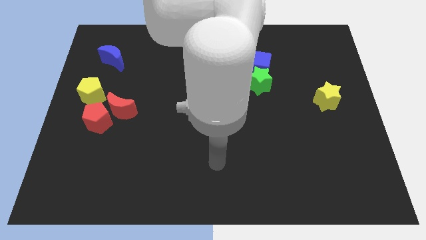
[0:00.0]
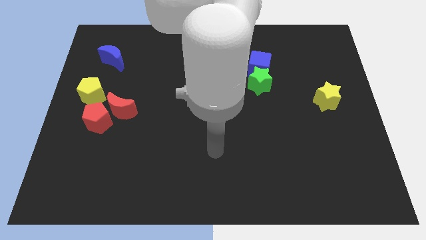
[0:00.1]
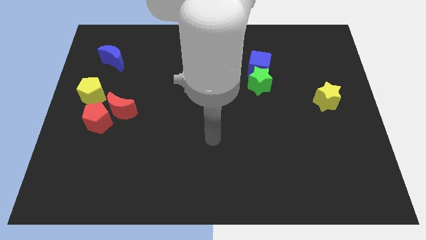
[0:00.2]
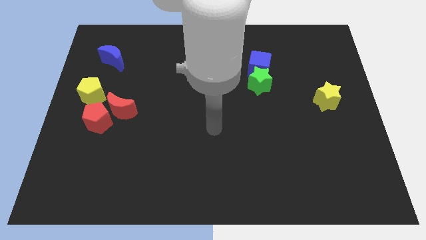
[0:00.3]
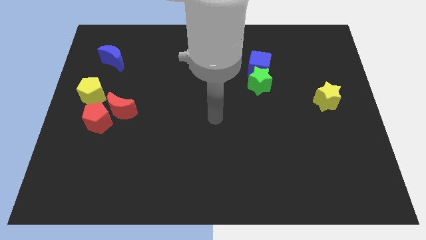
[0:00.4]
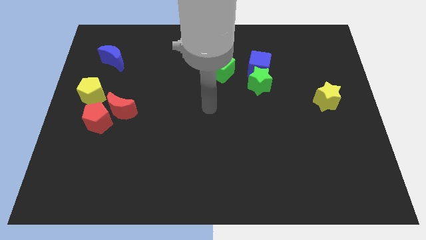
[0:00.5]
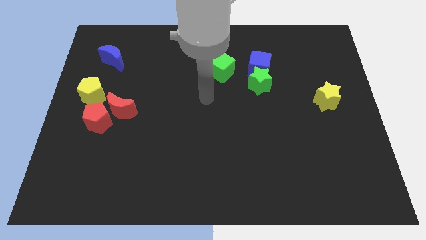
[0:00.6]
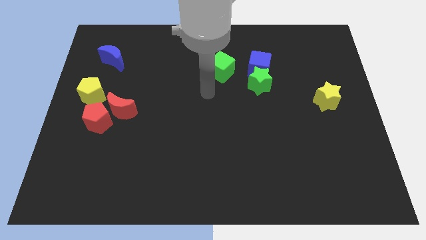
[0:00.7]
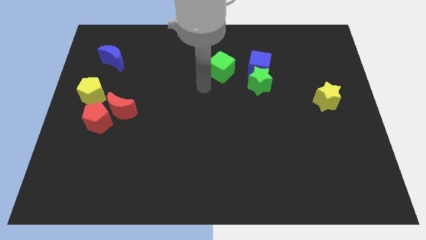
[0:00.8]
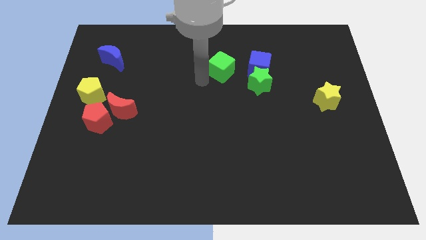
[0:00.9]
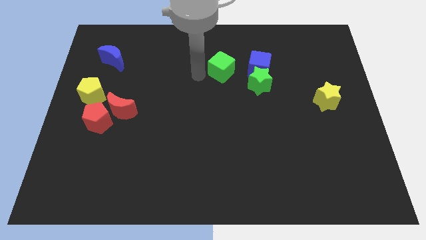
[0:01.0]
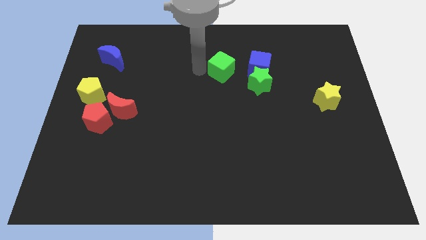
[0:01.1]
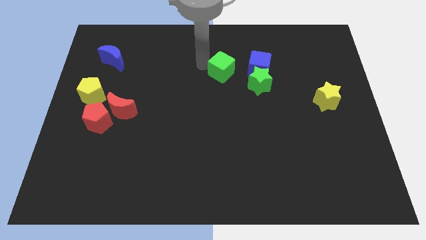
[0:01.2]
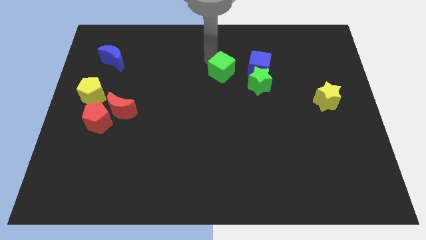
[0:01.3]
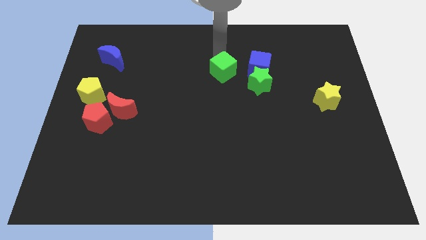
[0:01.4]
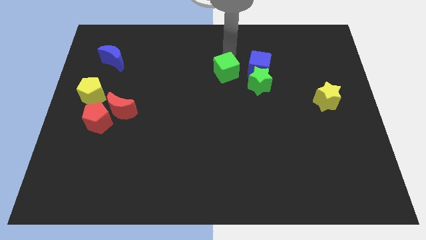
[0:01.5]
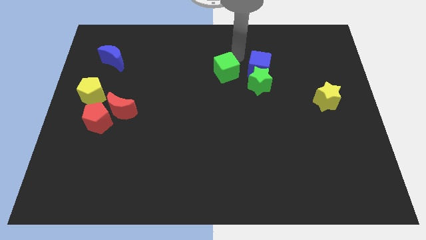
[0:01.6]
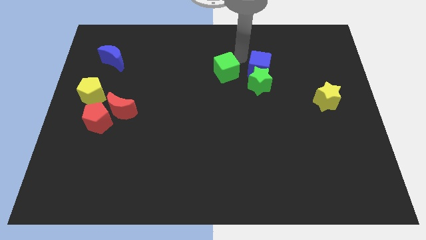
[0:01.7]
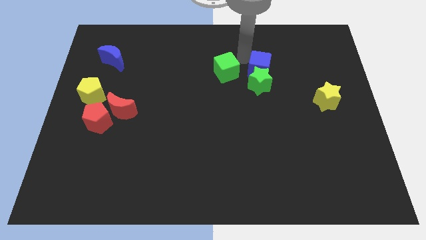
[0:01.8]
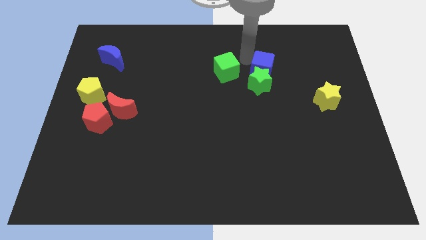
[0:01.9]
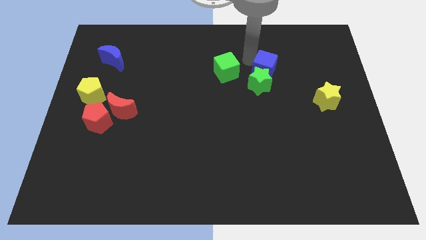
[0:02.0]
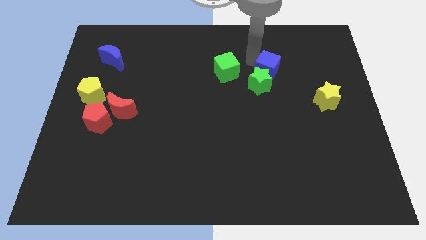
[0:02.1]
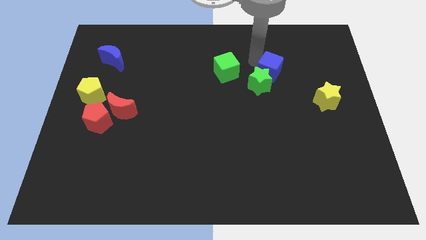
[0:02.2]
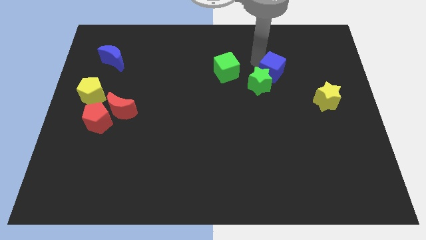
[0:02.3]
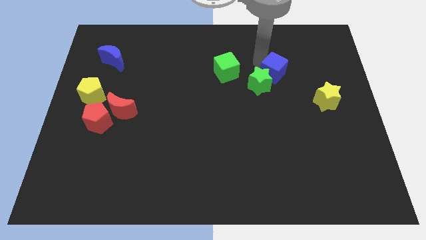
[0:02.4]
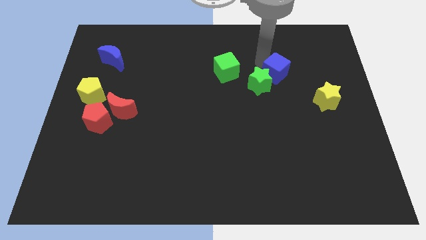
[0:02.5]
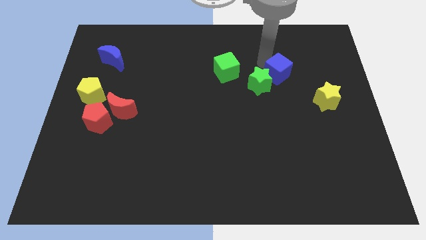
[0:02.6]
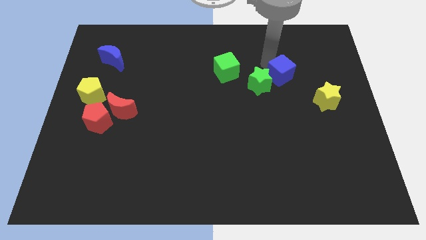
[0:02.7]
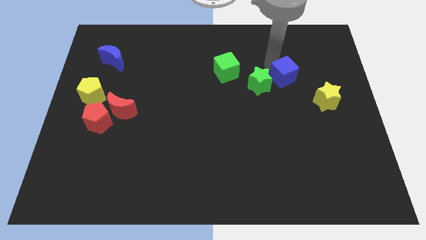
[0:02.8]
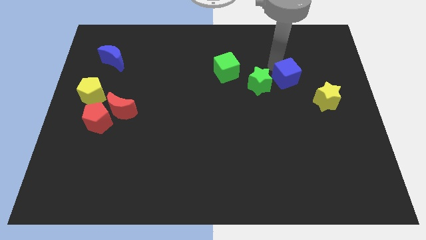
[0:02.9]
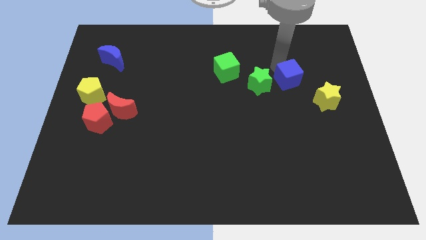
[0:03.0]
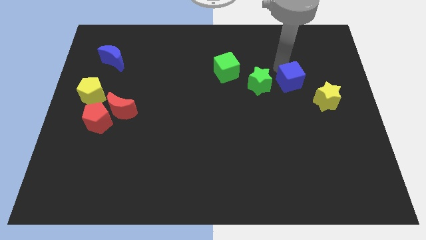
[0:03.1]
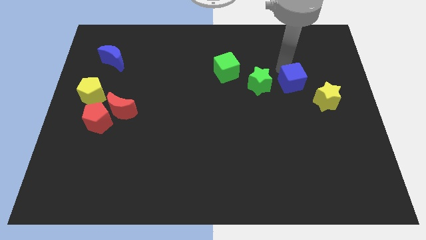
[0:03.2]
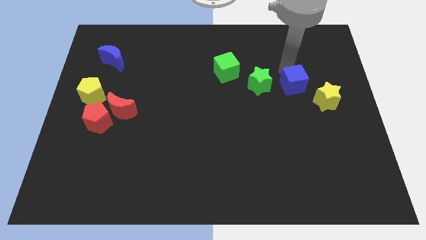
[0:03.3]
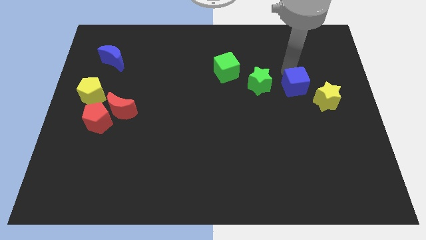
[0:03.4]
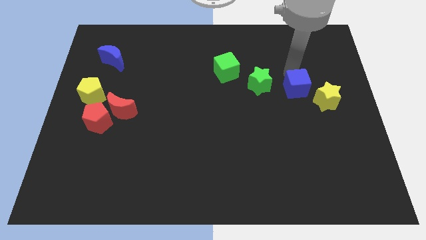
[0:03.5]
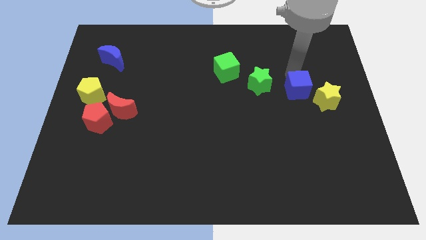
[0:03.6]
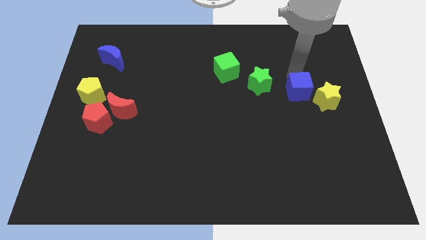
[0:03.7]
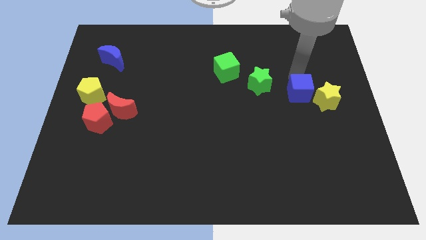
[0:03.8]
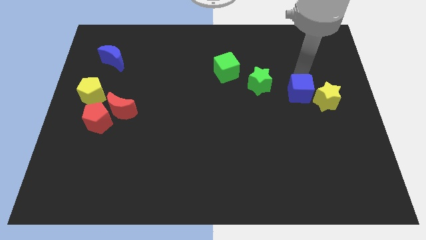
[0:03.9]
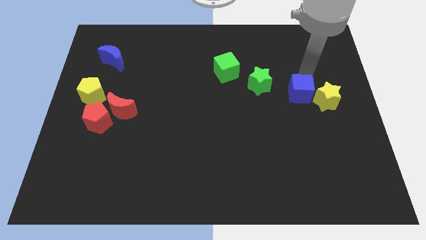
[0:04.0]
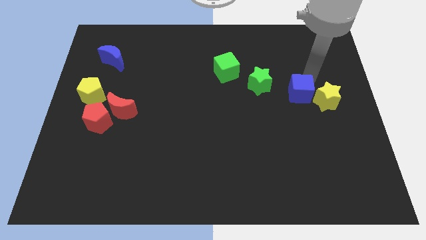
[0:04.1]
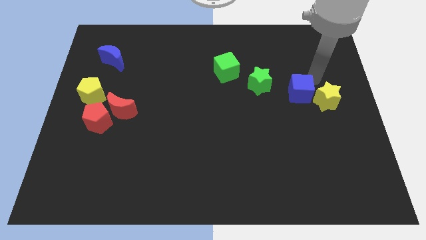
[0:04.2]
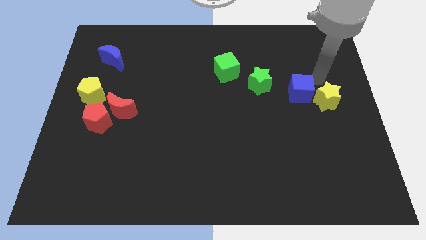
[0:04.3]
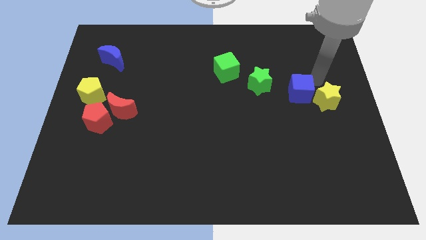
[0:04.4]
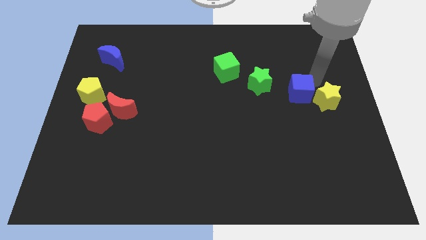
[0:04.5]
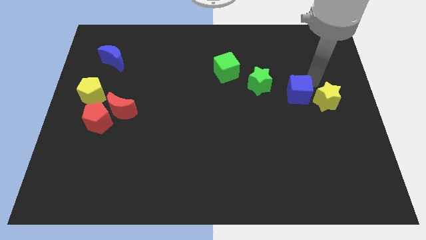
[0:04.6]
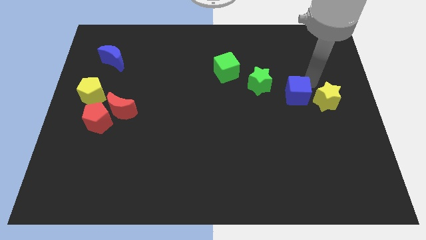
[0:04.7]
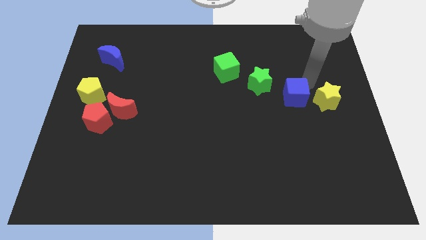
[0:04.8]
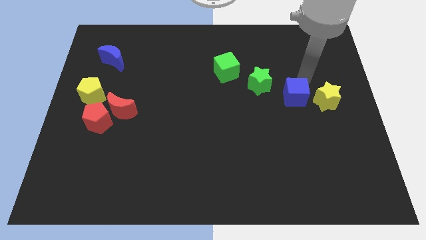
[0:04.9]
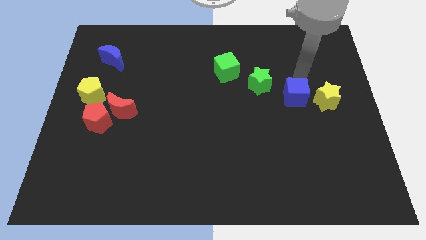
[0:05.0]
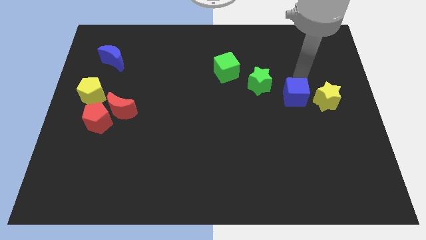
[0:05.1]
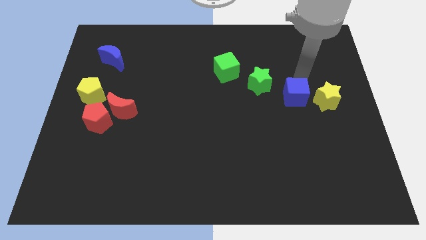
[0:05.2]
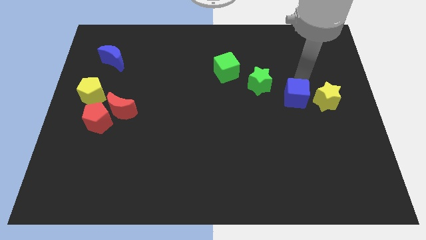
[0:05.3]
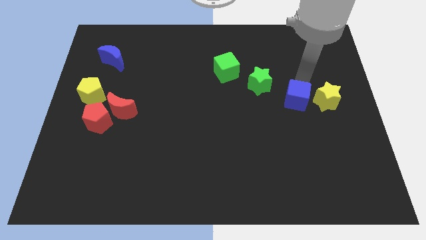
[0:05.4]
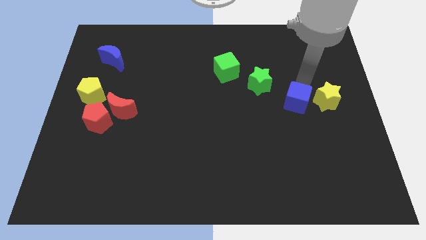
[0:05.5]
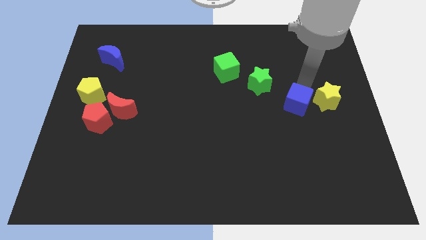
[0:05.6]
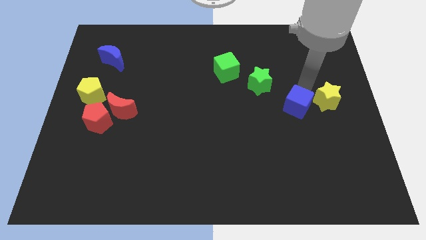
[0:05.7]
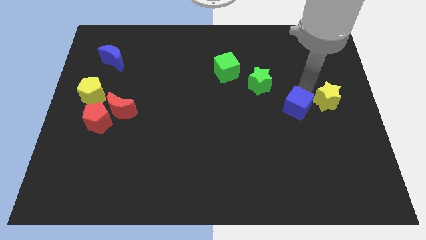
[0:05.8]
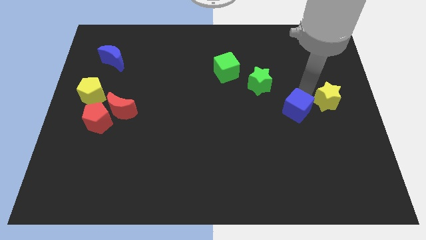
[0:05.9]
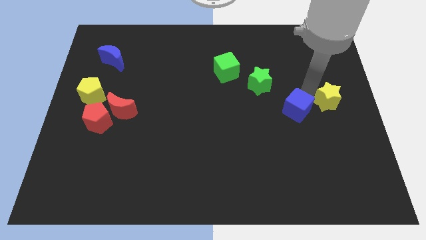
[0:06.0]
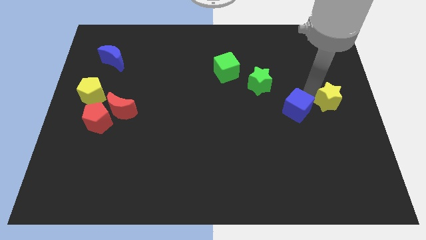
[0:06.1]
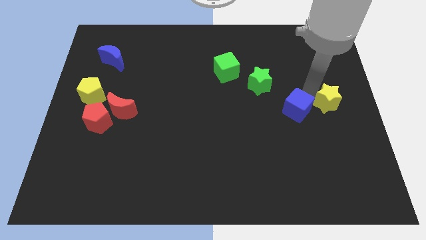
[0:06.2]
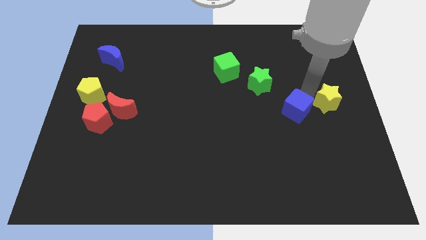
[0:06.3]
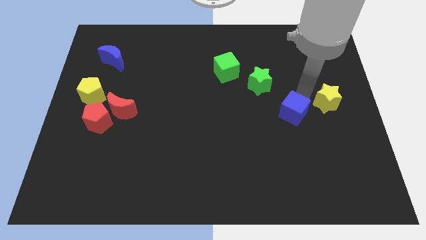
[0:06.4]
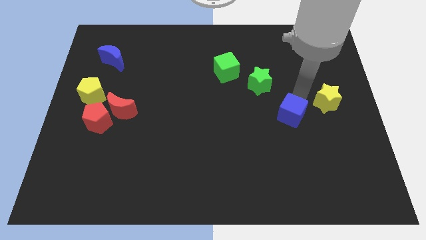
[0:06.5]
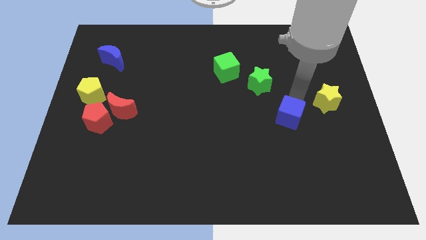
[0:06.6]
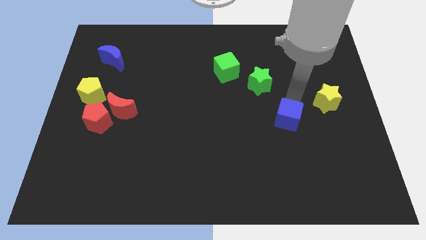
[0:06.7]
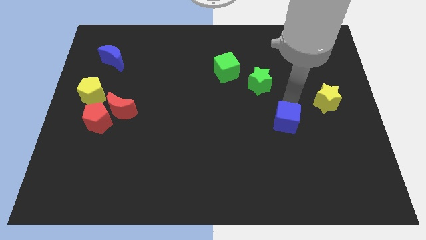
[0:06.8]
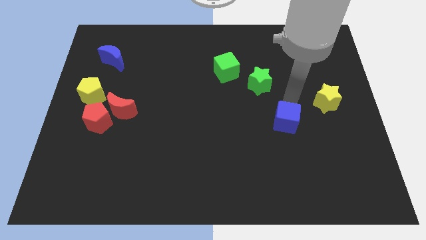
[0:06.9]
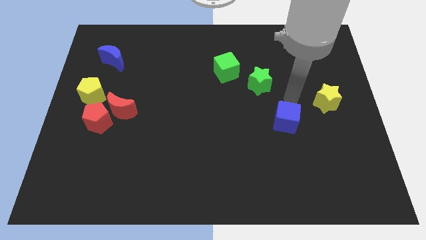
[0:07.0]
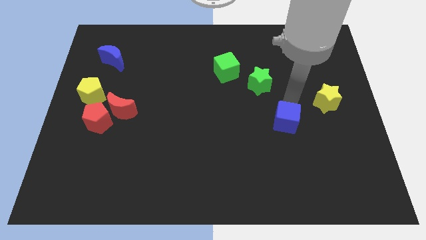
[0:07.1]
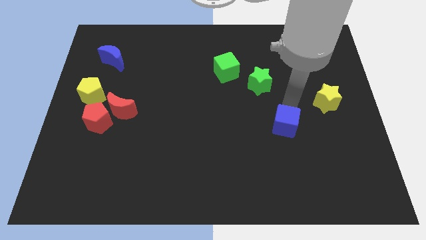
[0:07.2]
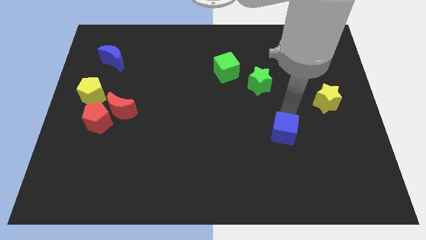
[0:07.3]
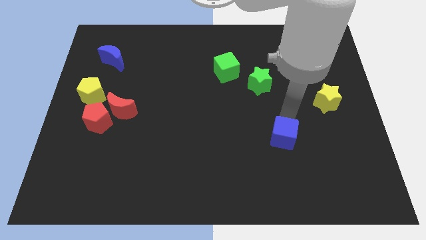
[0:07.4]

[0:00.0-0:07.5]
push the blue cube downwards

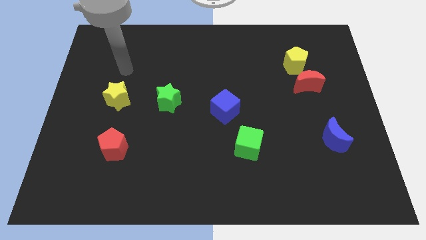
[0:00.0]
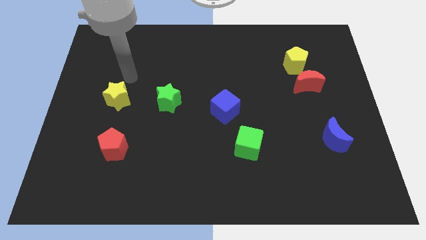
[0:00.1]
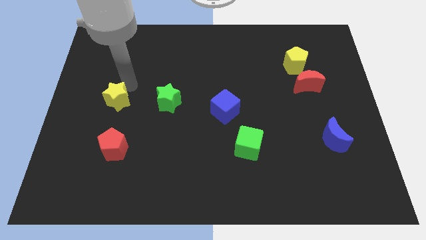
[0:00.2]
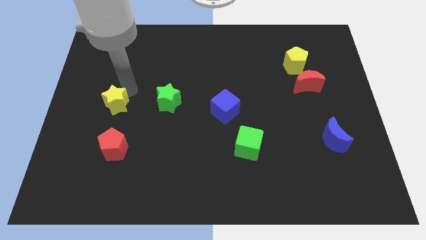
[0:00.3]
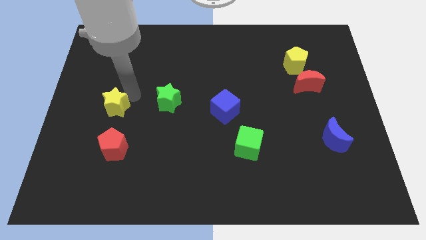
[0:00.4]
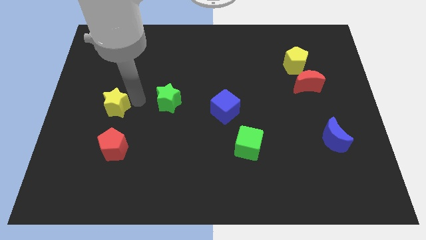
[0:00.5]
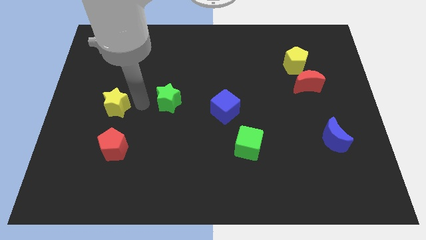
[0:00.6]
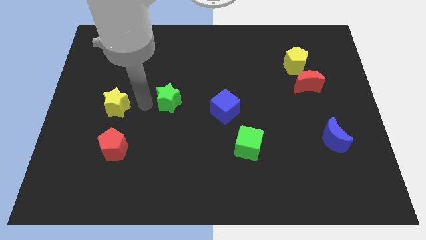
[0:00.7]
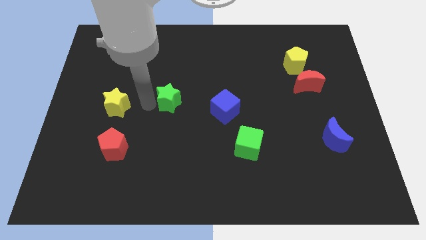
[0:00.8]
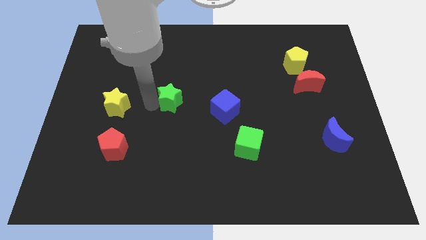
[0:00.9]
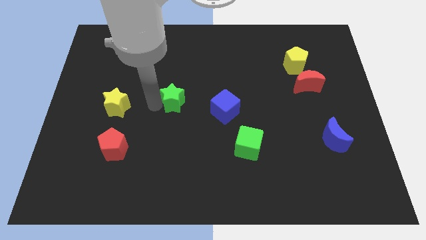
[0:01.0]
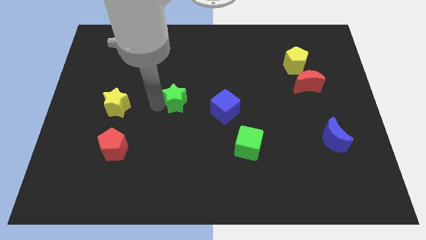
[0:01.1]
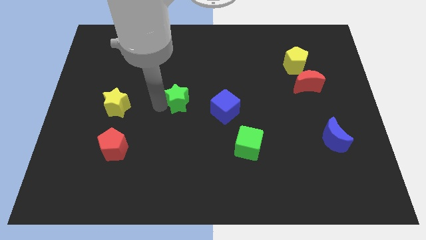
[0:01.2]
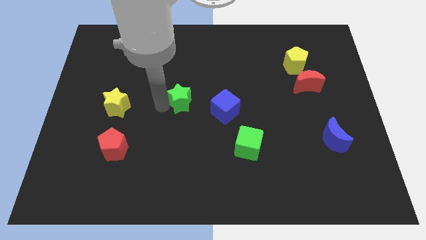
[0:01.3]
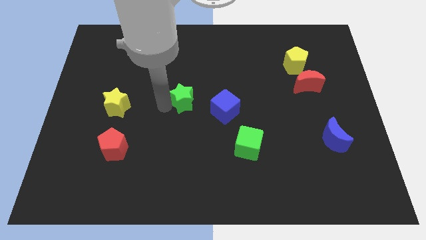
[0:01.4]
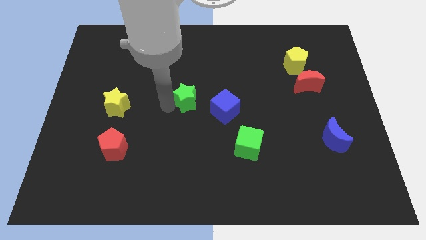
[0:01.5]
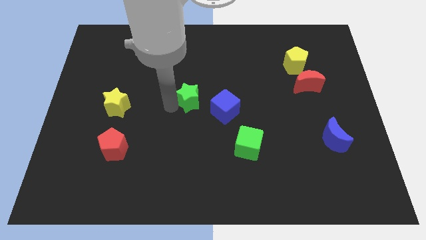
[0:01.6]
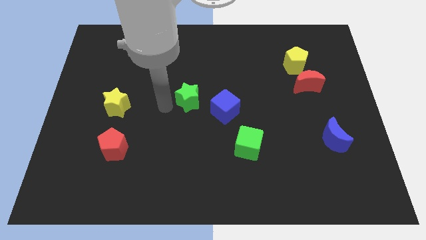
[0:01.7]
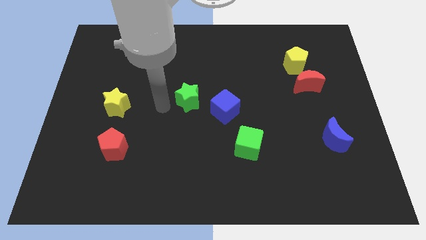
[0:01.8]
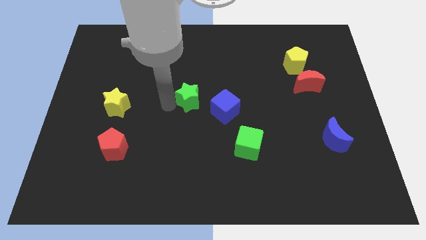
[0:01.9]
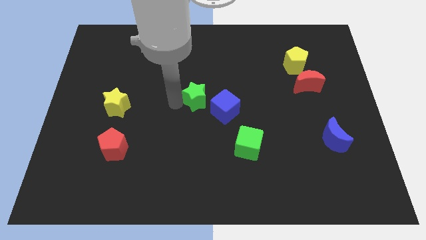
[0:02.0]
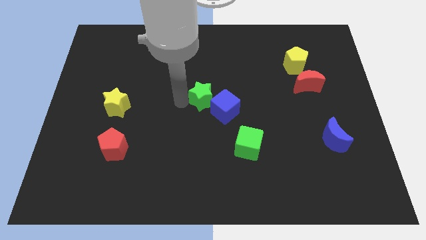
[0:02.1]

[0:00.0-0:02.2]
slightly move the green star to the right
